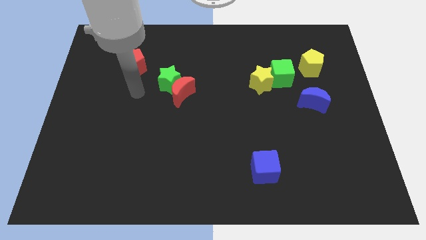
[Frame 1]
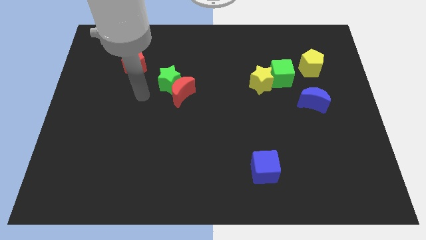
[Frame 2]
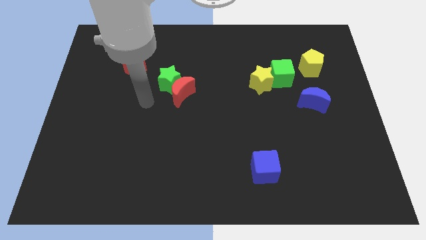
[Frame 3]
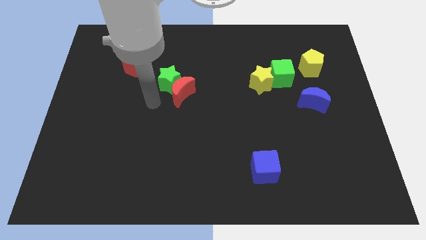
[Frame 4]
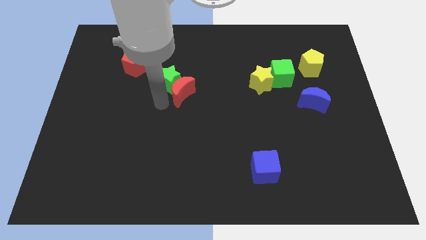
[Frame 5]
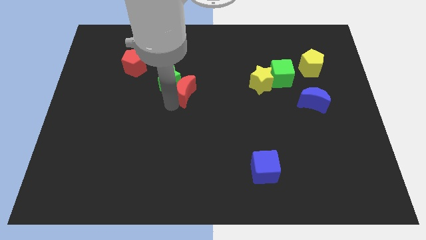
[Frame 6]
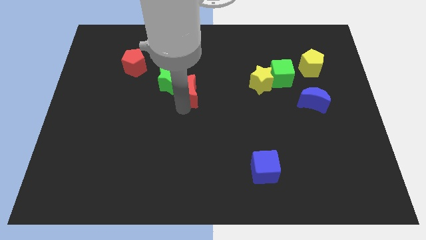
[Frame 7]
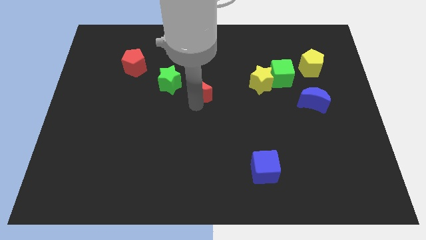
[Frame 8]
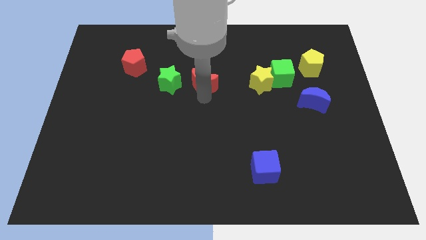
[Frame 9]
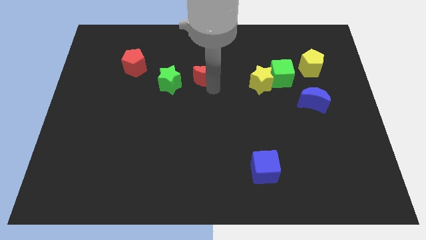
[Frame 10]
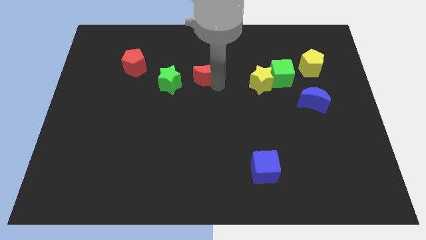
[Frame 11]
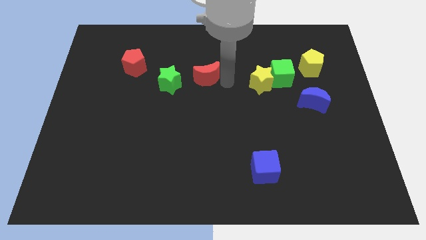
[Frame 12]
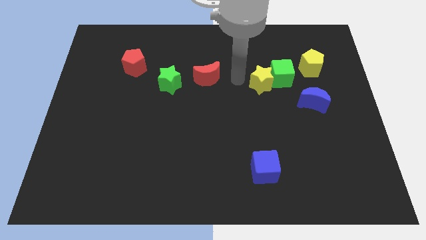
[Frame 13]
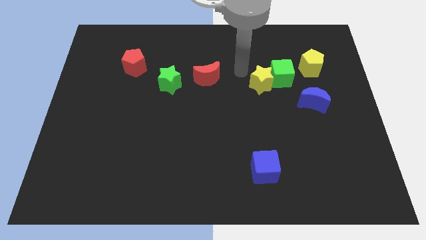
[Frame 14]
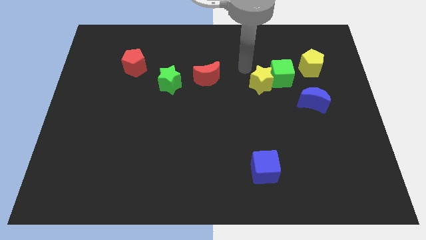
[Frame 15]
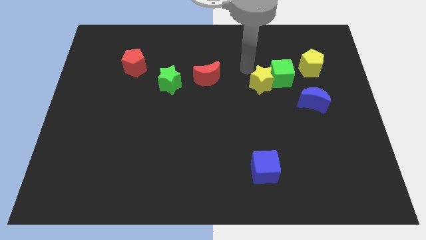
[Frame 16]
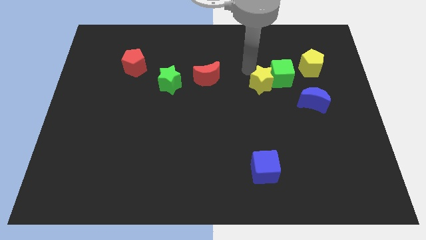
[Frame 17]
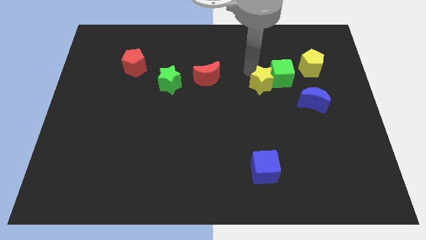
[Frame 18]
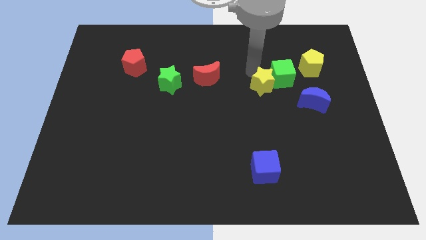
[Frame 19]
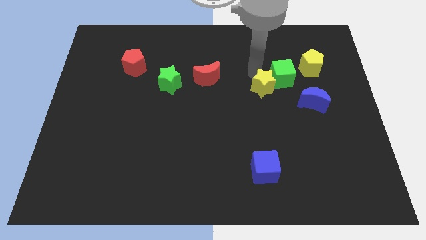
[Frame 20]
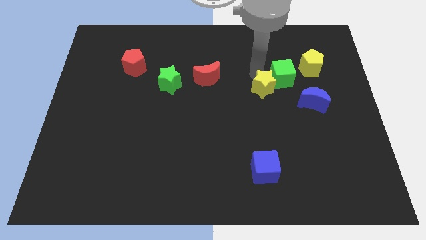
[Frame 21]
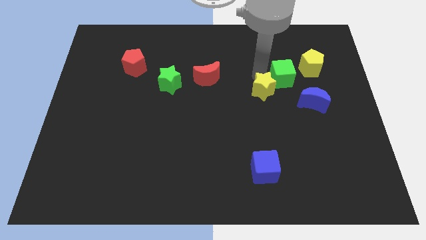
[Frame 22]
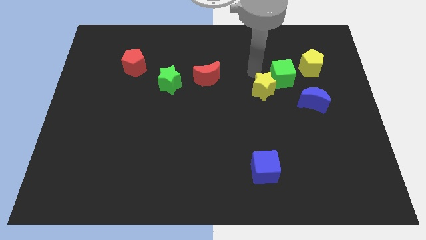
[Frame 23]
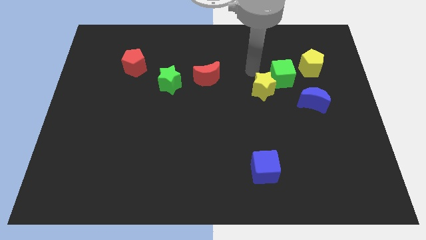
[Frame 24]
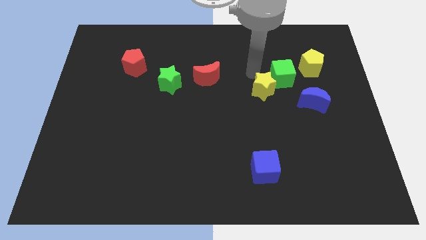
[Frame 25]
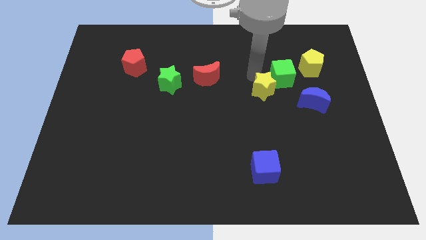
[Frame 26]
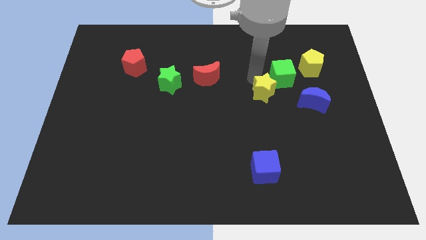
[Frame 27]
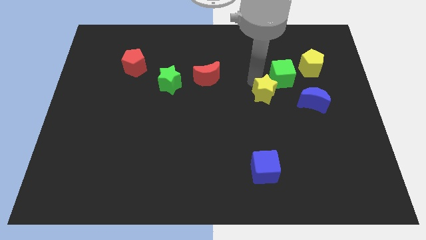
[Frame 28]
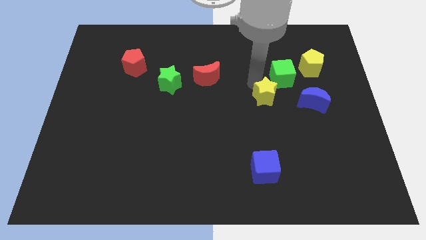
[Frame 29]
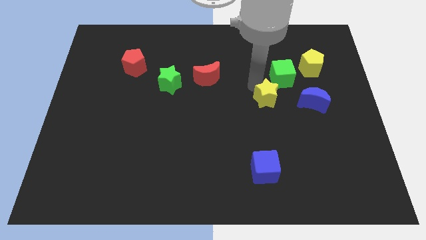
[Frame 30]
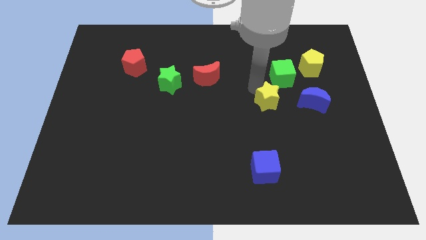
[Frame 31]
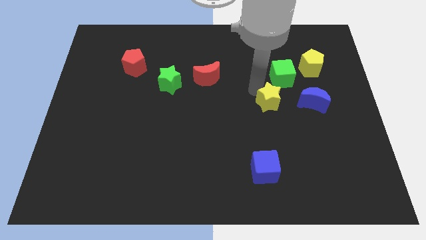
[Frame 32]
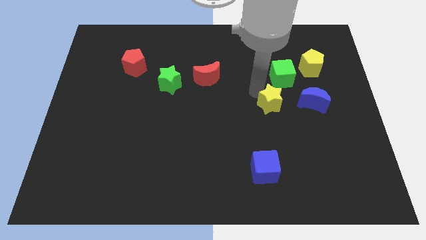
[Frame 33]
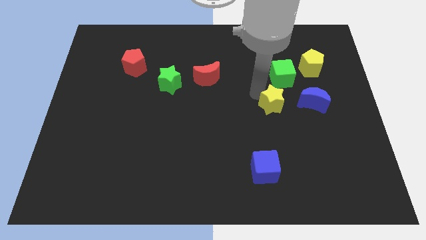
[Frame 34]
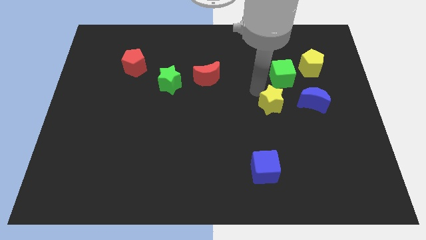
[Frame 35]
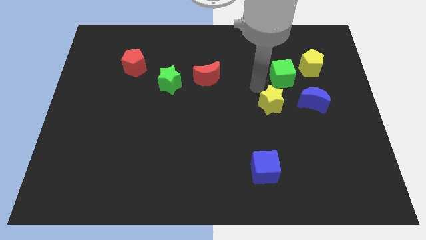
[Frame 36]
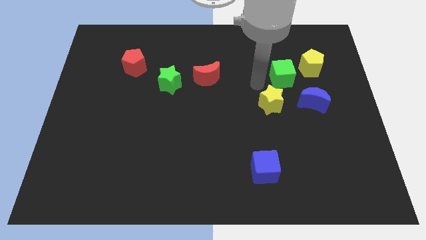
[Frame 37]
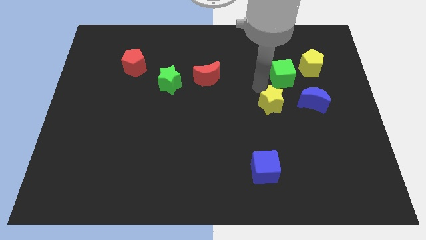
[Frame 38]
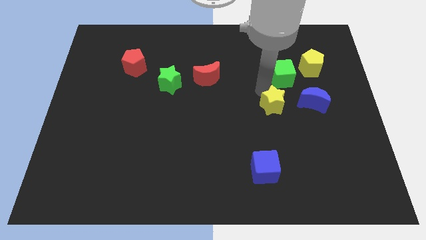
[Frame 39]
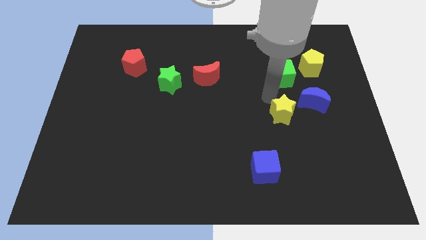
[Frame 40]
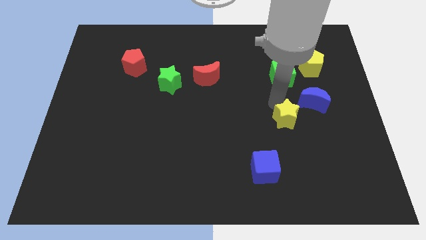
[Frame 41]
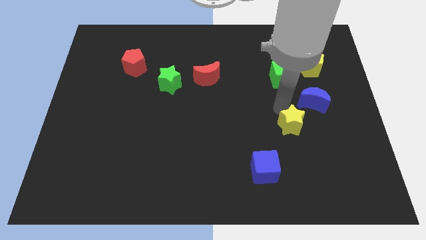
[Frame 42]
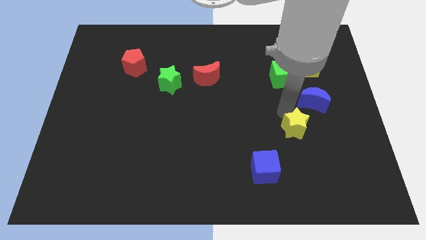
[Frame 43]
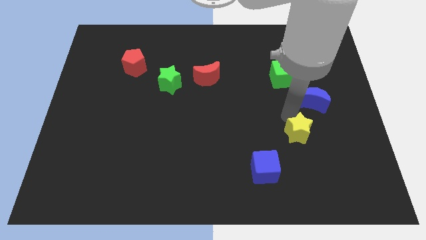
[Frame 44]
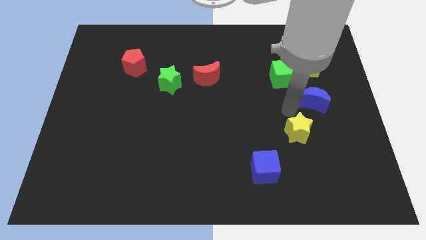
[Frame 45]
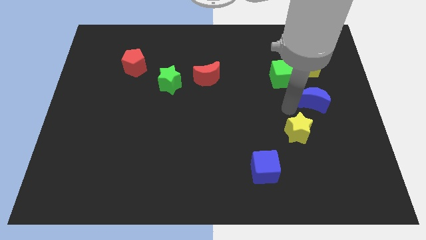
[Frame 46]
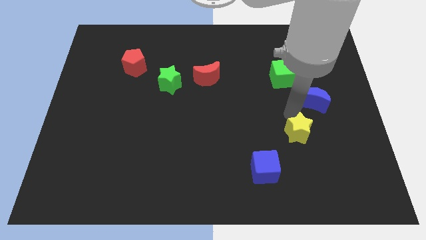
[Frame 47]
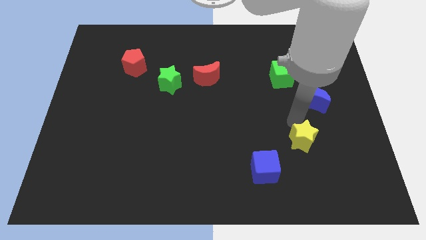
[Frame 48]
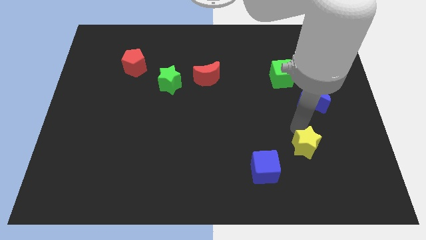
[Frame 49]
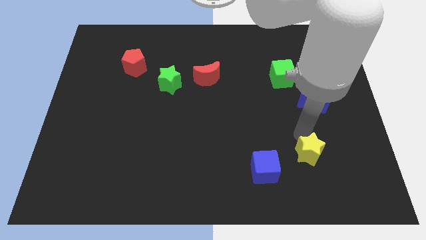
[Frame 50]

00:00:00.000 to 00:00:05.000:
put the yellow star right of the blue cube

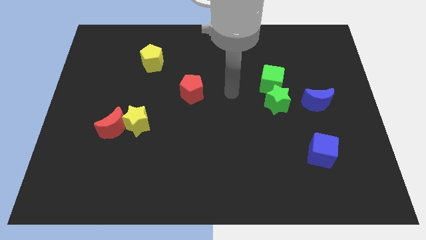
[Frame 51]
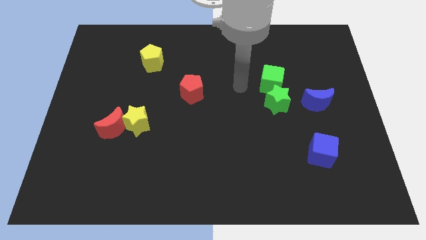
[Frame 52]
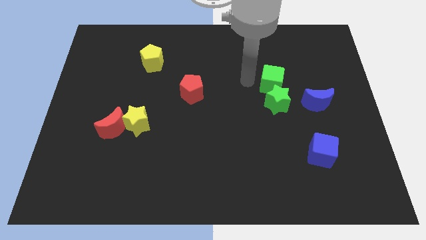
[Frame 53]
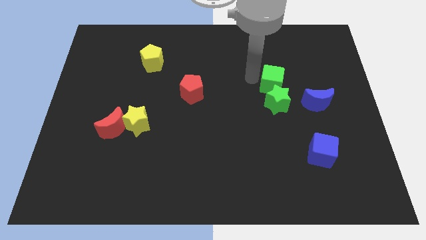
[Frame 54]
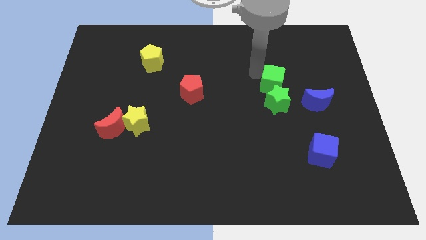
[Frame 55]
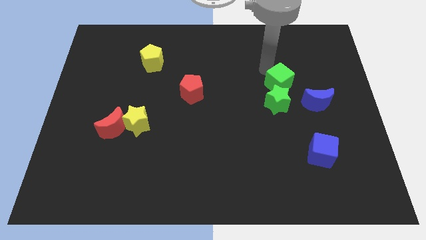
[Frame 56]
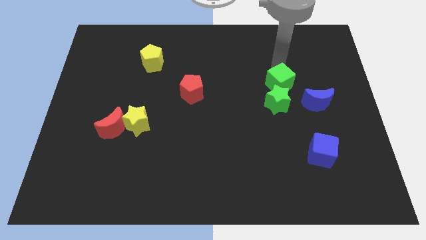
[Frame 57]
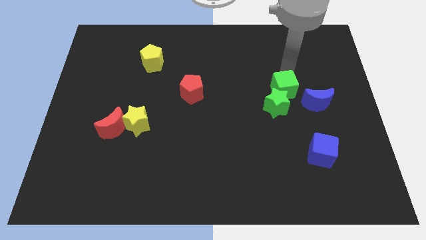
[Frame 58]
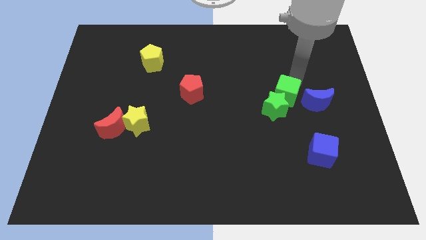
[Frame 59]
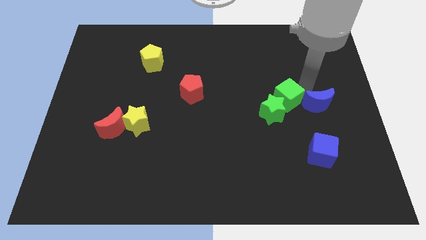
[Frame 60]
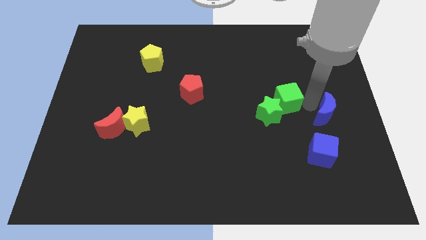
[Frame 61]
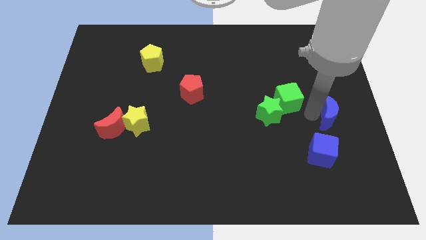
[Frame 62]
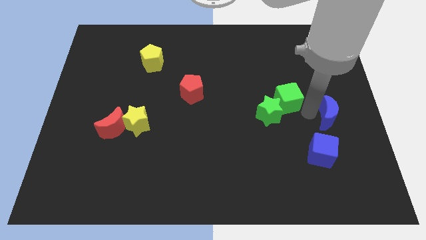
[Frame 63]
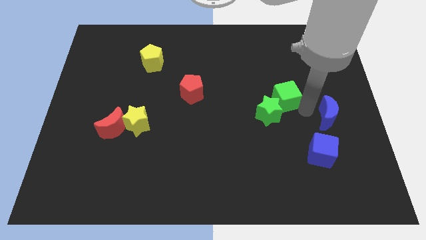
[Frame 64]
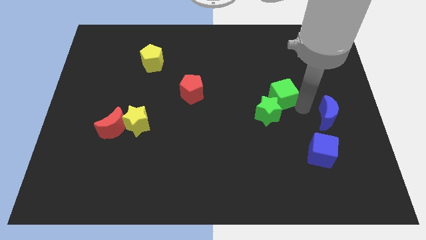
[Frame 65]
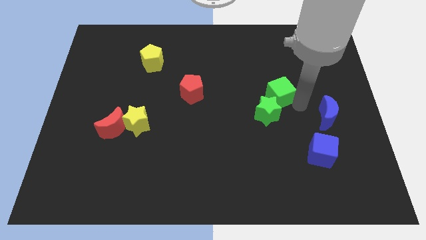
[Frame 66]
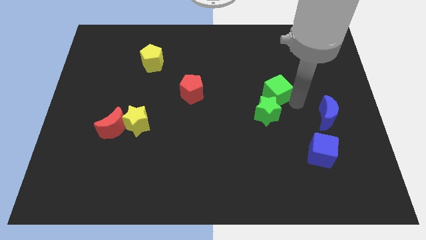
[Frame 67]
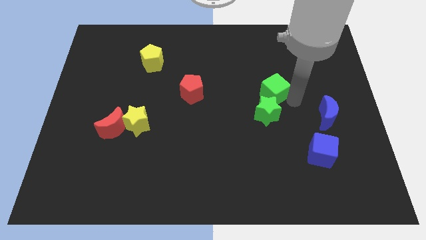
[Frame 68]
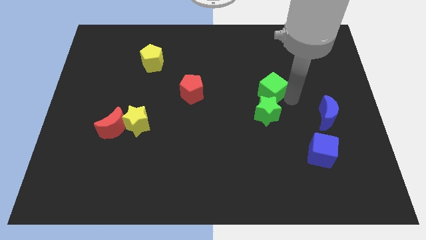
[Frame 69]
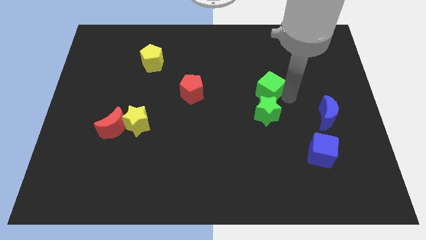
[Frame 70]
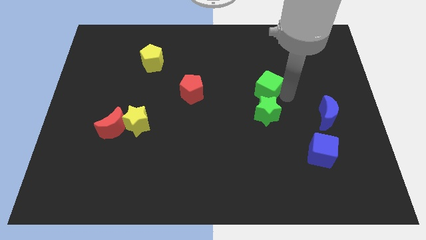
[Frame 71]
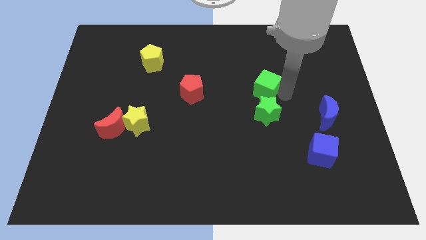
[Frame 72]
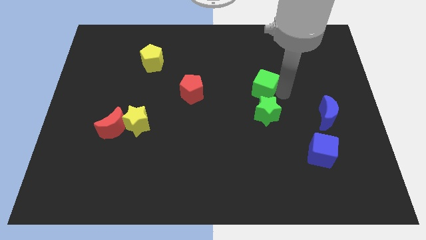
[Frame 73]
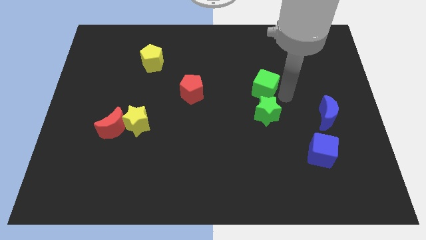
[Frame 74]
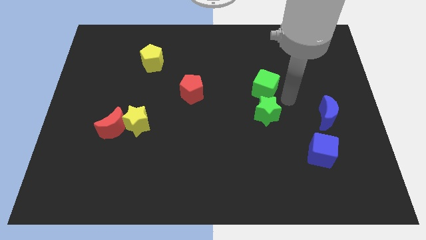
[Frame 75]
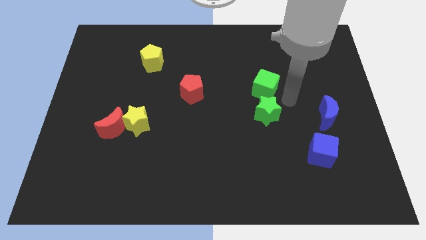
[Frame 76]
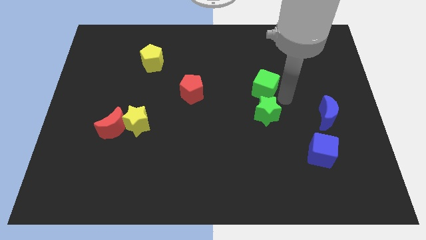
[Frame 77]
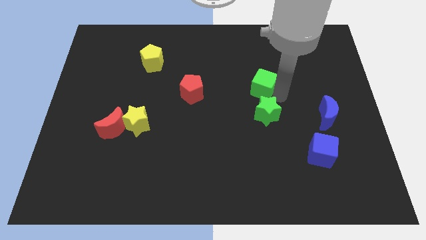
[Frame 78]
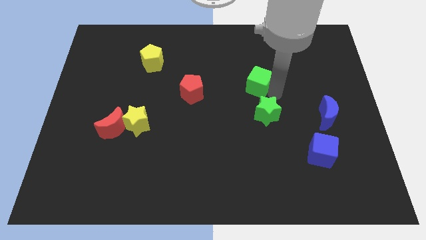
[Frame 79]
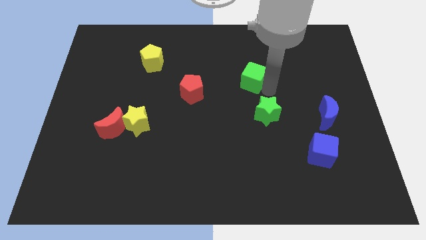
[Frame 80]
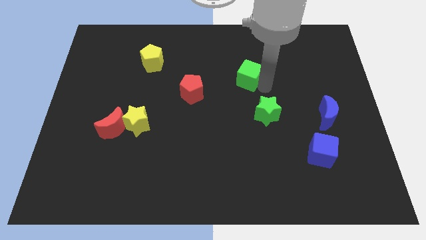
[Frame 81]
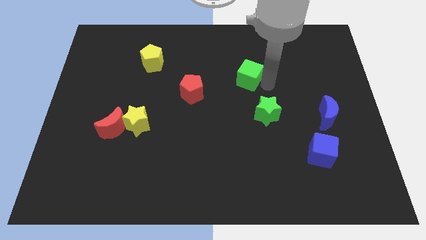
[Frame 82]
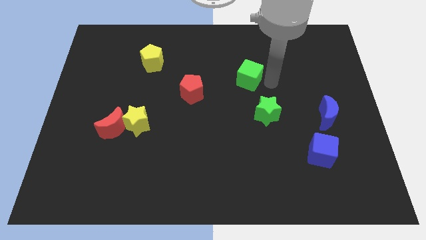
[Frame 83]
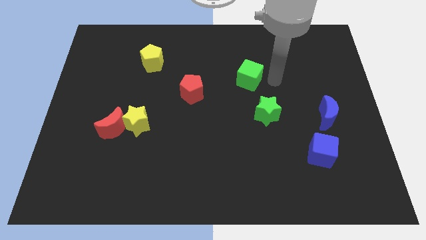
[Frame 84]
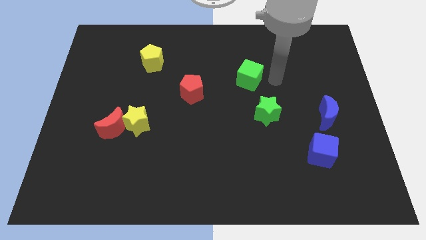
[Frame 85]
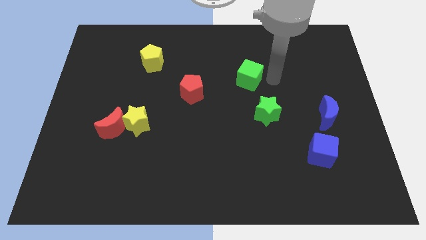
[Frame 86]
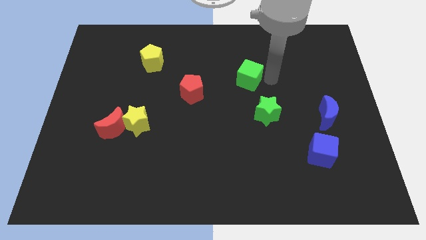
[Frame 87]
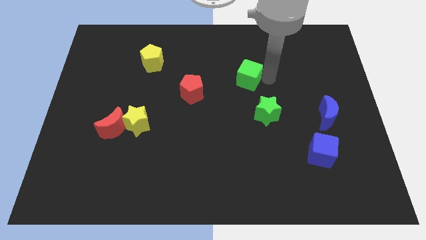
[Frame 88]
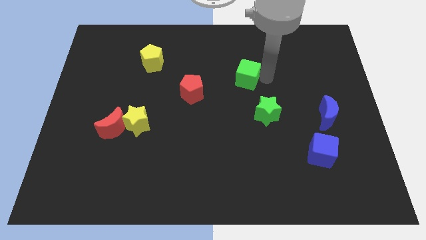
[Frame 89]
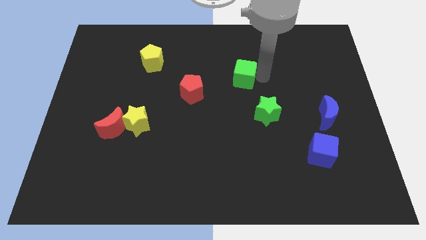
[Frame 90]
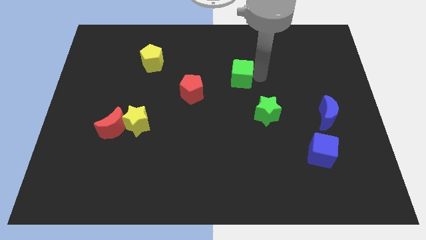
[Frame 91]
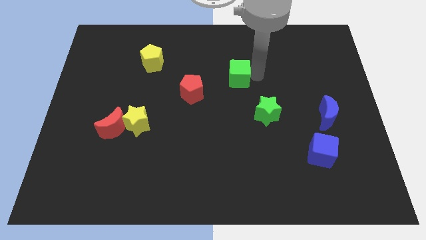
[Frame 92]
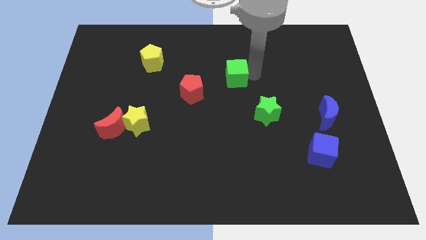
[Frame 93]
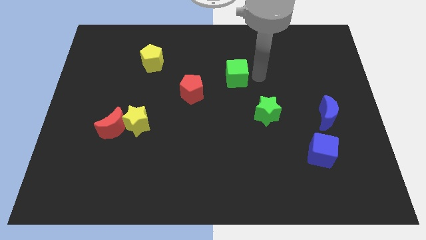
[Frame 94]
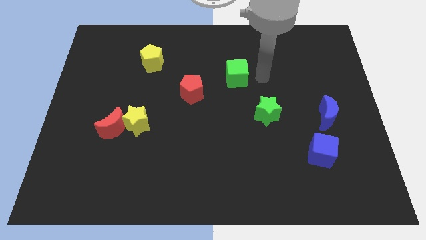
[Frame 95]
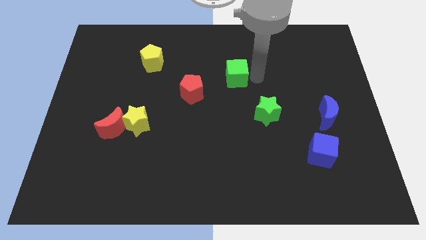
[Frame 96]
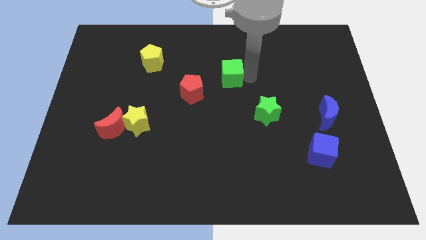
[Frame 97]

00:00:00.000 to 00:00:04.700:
put the green cube to the top right side of the red pentagon
